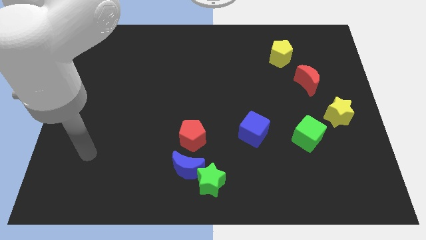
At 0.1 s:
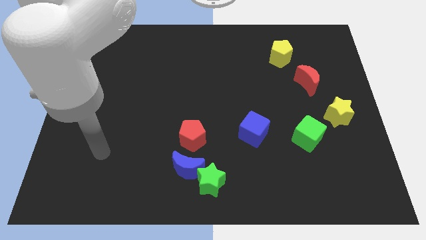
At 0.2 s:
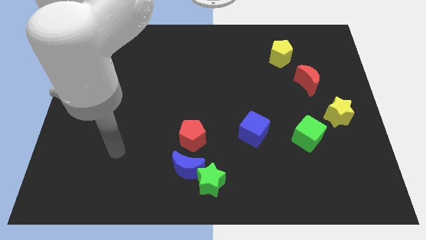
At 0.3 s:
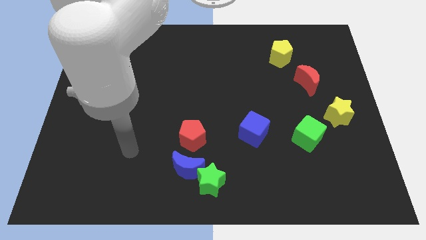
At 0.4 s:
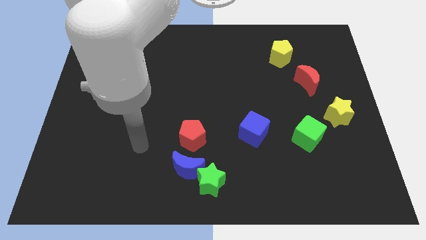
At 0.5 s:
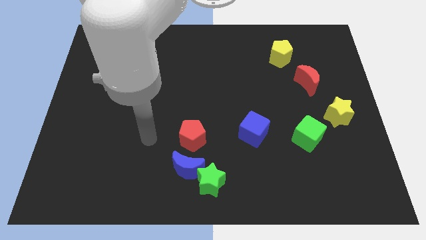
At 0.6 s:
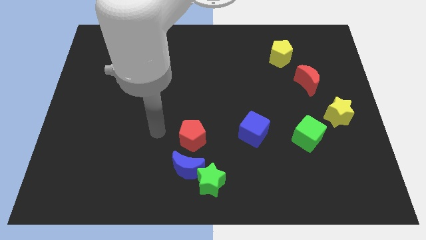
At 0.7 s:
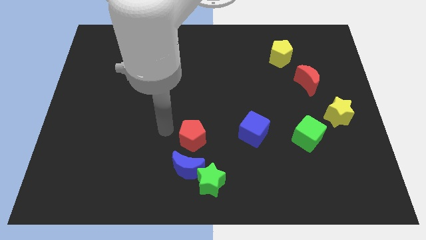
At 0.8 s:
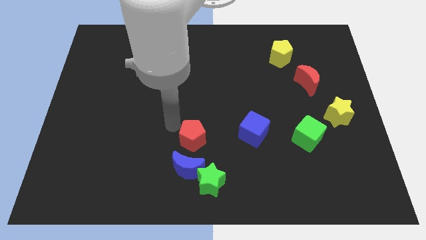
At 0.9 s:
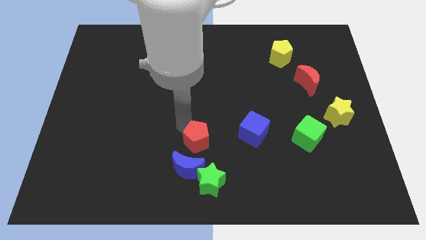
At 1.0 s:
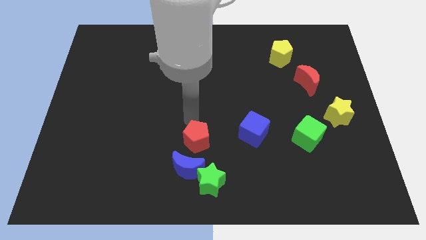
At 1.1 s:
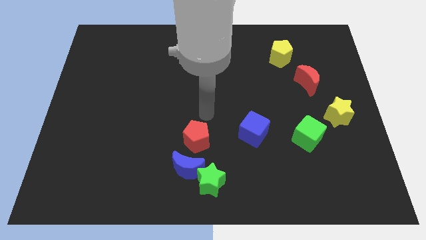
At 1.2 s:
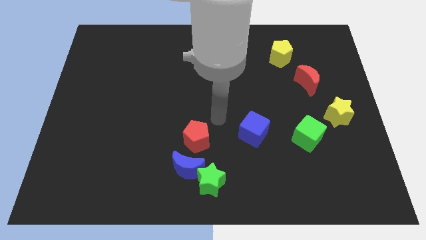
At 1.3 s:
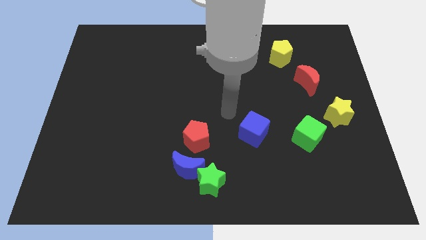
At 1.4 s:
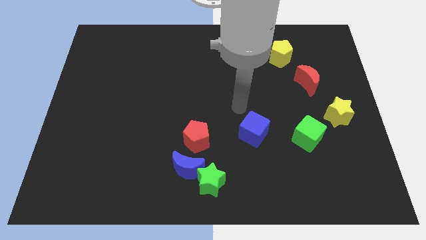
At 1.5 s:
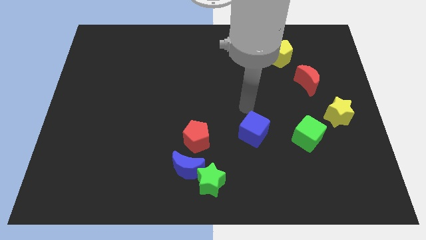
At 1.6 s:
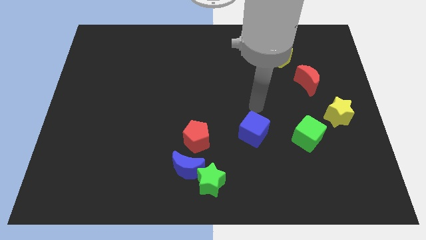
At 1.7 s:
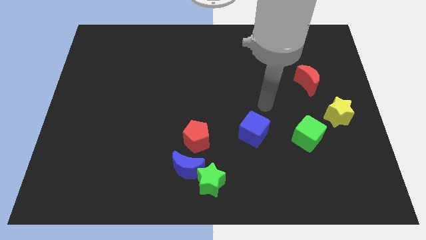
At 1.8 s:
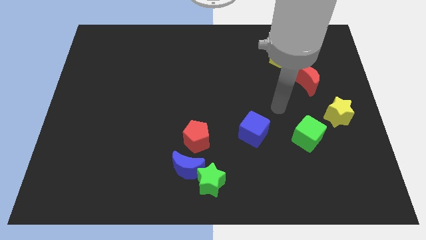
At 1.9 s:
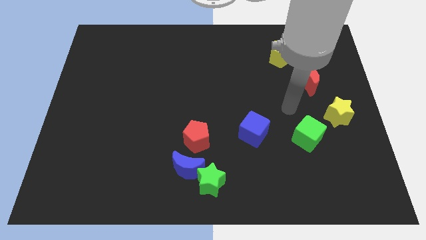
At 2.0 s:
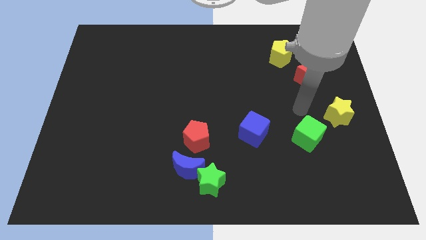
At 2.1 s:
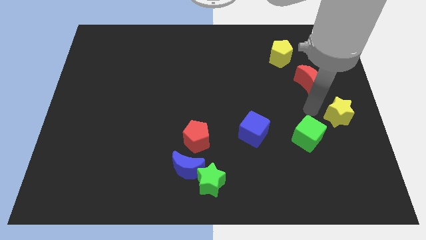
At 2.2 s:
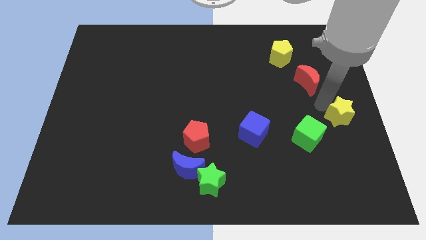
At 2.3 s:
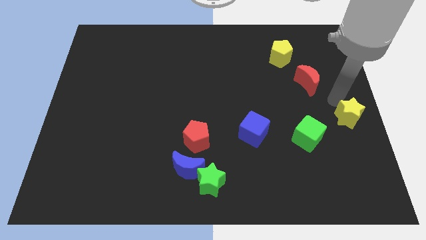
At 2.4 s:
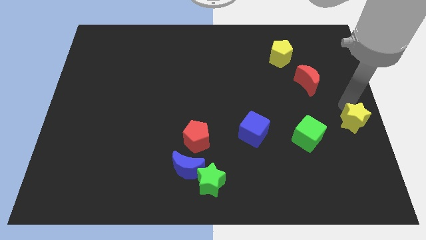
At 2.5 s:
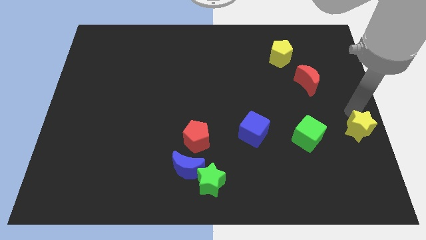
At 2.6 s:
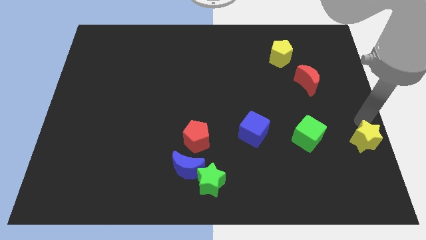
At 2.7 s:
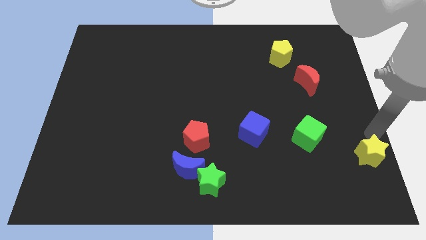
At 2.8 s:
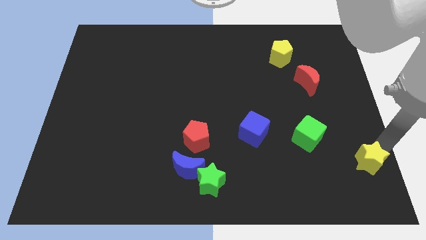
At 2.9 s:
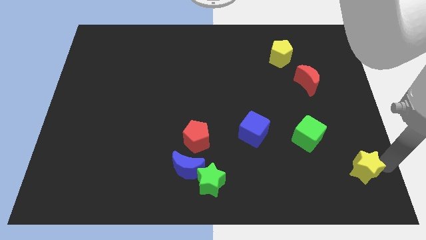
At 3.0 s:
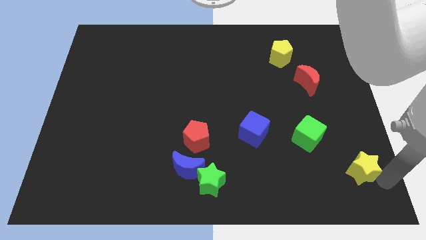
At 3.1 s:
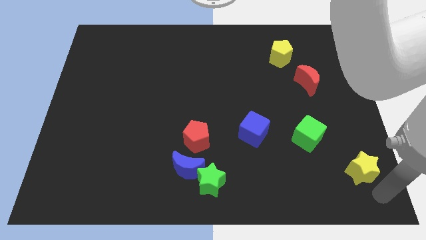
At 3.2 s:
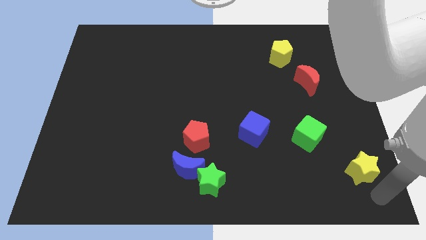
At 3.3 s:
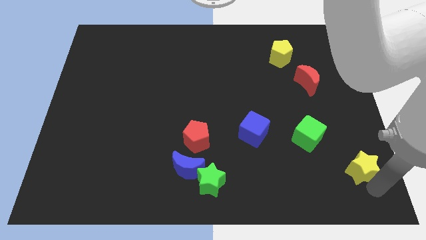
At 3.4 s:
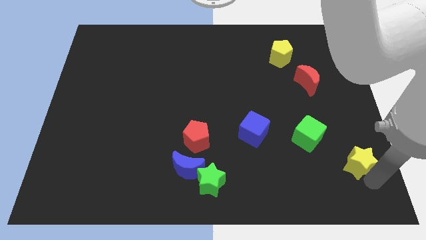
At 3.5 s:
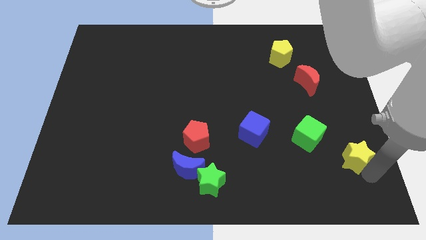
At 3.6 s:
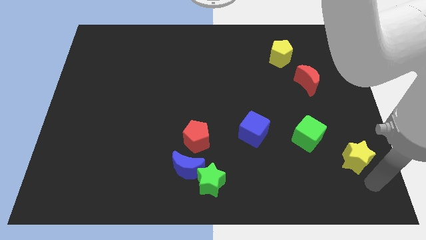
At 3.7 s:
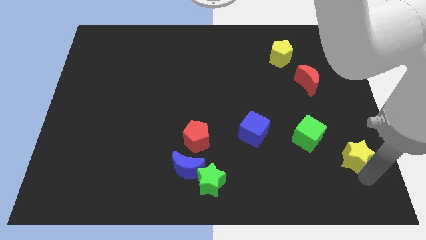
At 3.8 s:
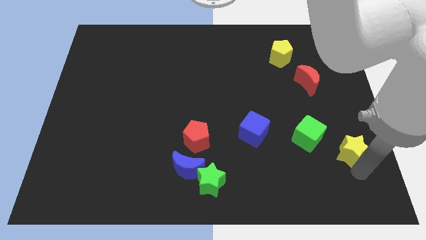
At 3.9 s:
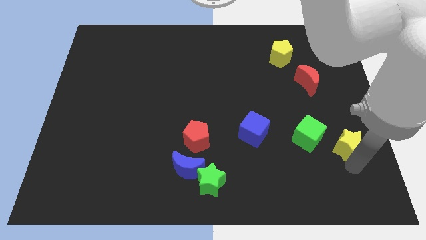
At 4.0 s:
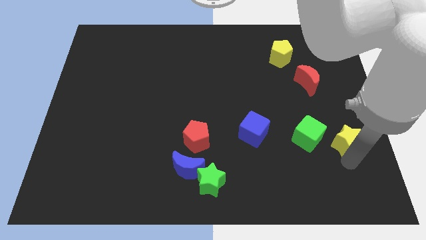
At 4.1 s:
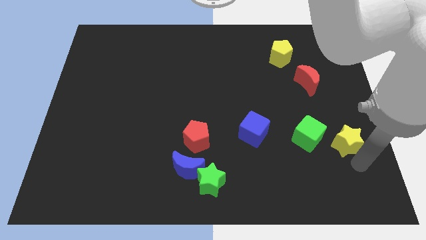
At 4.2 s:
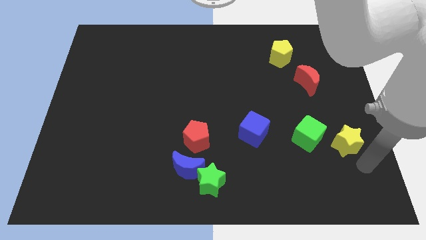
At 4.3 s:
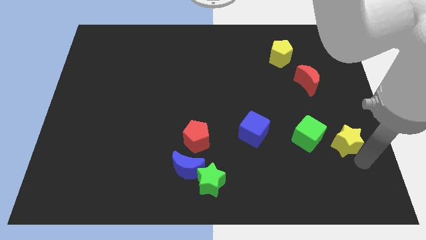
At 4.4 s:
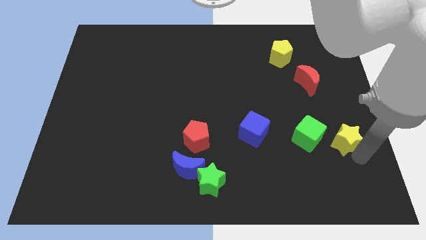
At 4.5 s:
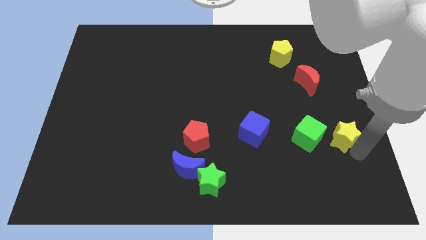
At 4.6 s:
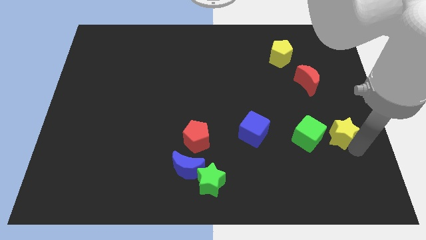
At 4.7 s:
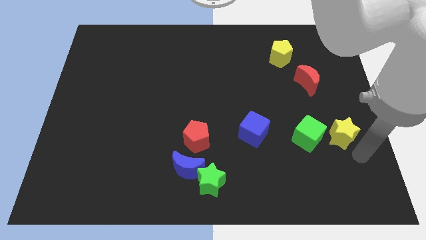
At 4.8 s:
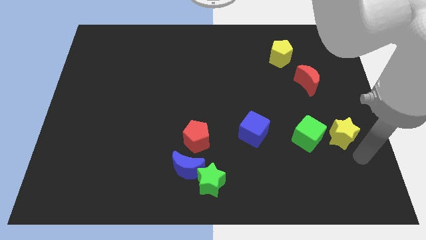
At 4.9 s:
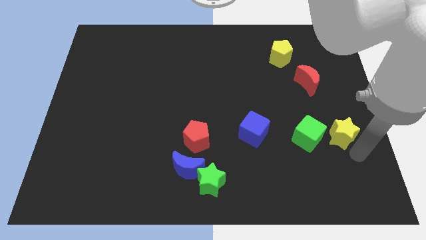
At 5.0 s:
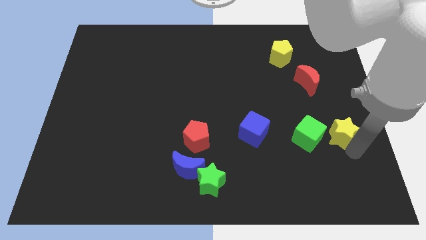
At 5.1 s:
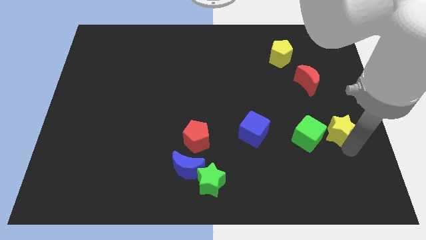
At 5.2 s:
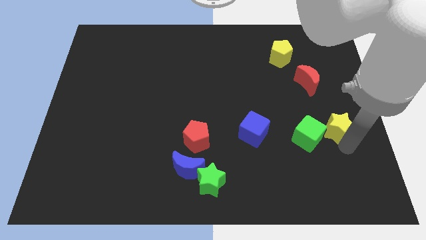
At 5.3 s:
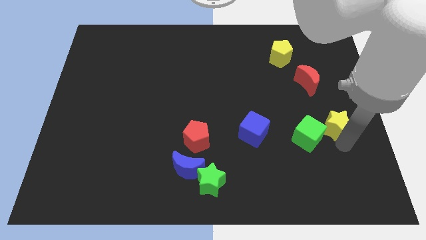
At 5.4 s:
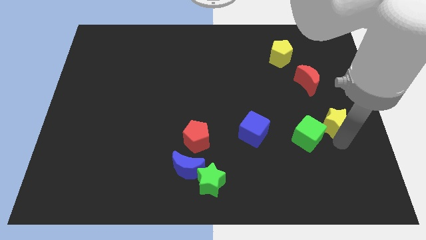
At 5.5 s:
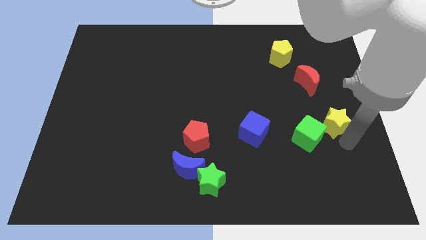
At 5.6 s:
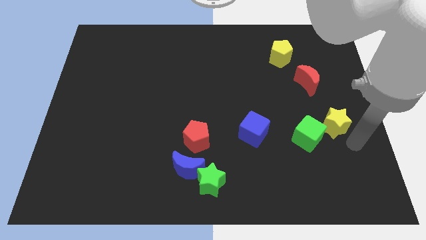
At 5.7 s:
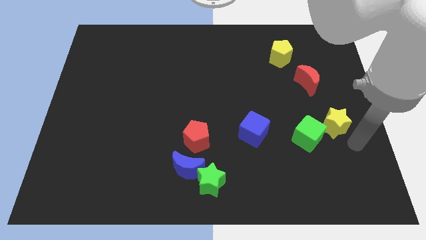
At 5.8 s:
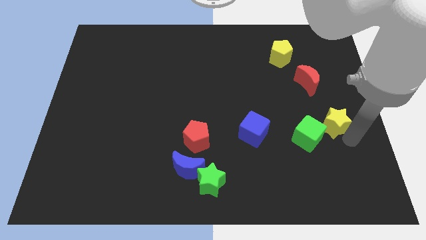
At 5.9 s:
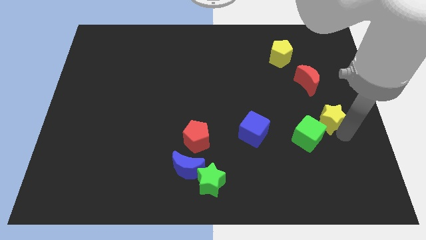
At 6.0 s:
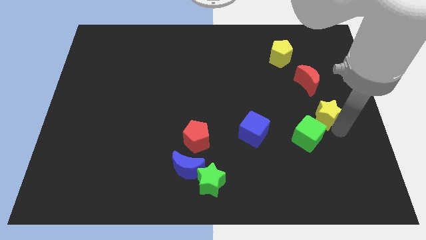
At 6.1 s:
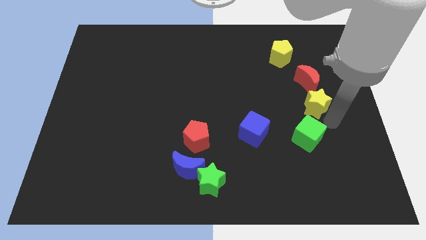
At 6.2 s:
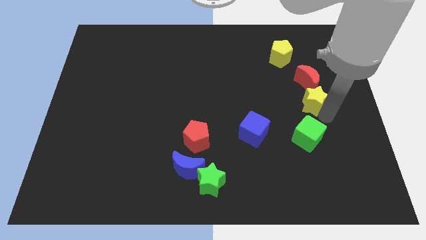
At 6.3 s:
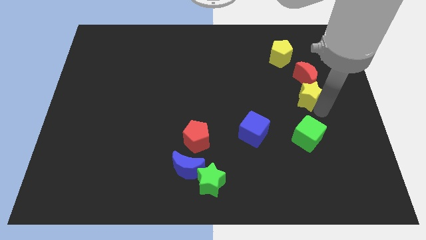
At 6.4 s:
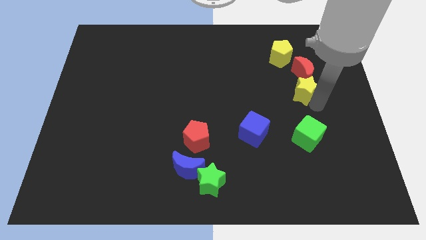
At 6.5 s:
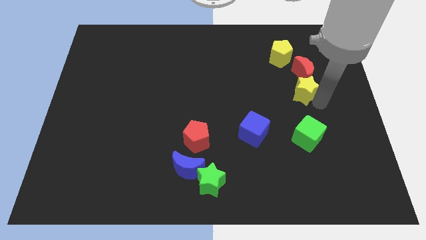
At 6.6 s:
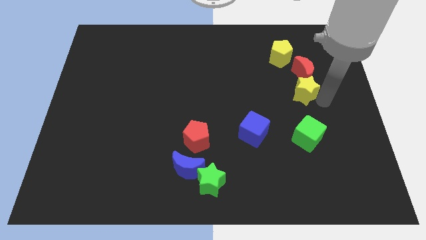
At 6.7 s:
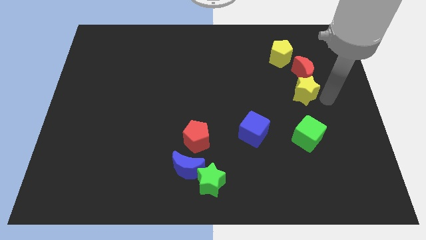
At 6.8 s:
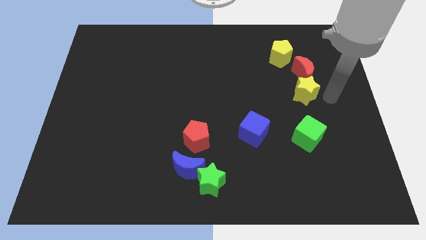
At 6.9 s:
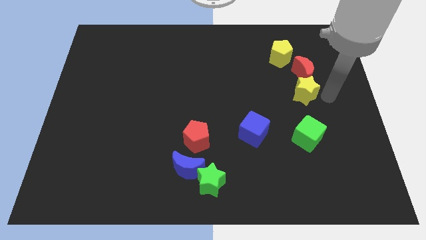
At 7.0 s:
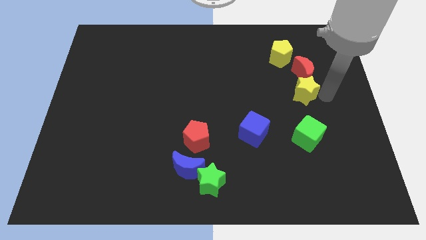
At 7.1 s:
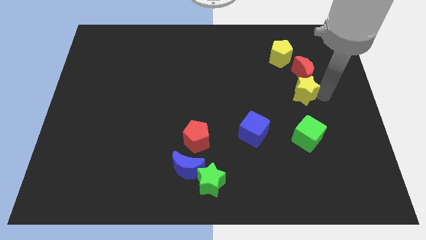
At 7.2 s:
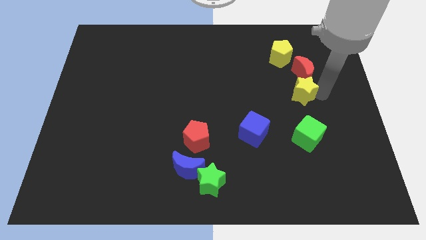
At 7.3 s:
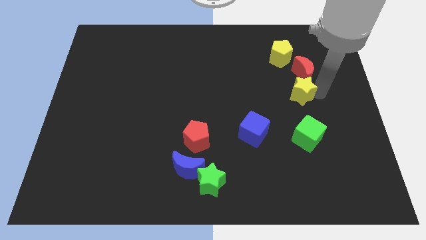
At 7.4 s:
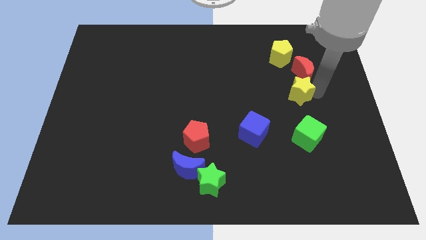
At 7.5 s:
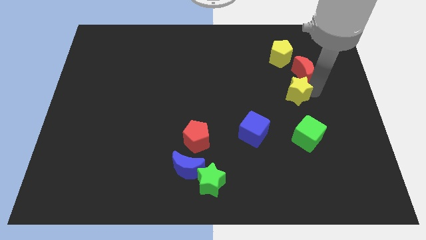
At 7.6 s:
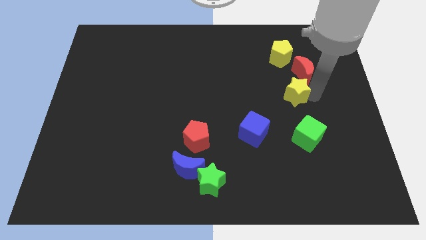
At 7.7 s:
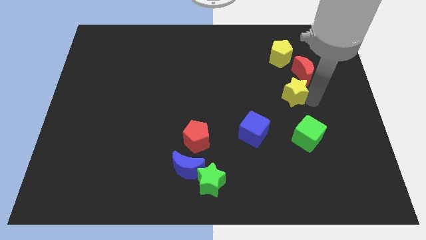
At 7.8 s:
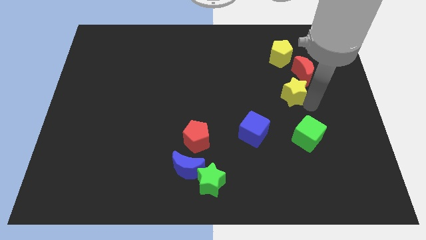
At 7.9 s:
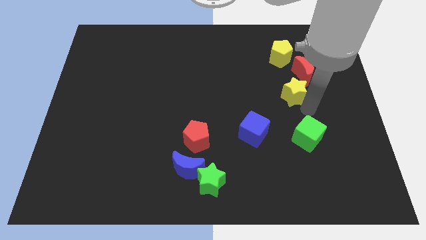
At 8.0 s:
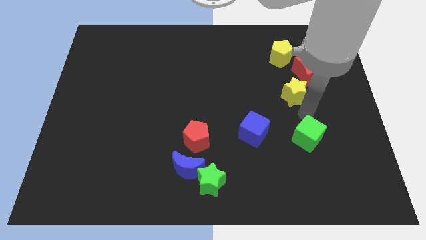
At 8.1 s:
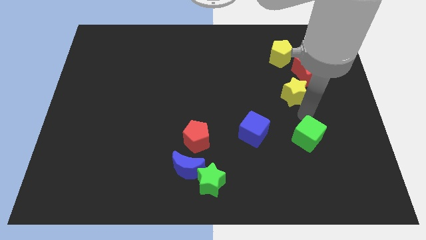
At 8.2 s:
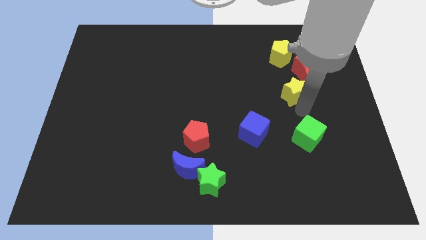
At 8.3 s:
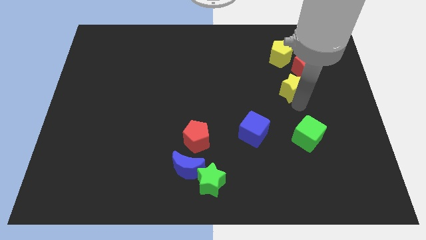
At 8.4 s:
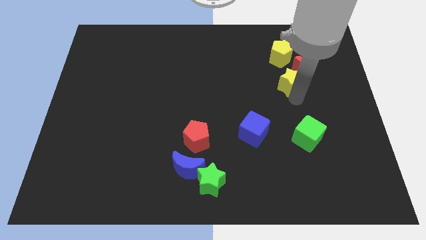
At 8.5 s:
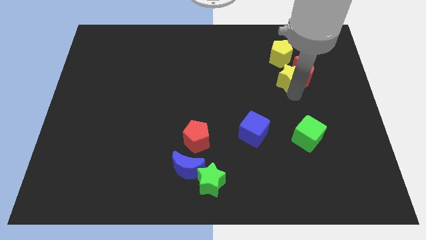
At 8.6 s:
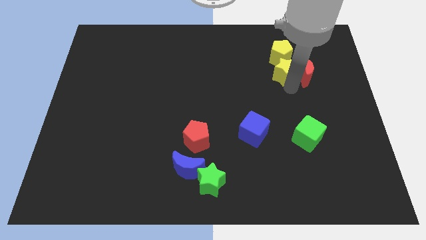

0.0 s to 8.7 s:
move the yellow star next to the yellow pentagon
